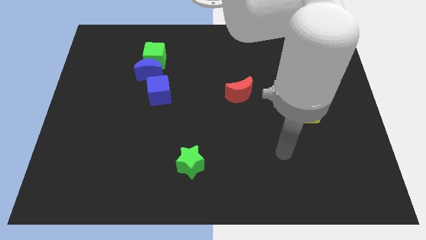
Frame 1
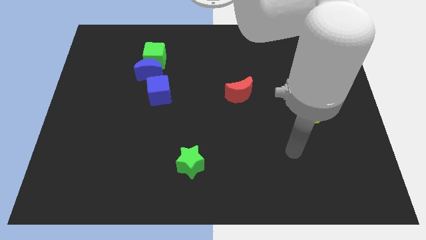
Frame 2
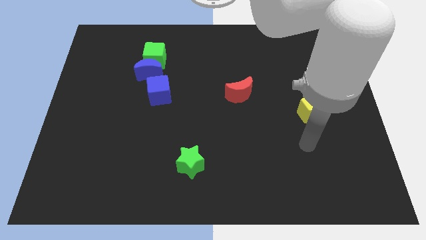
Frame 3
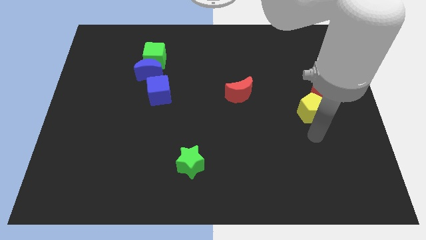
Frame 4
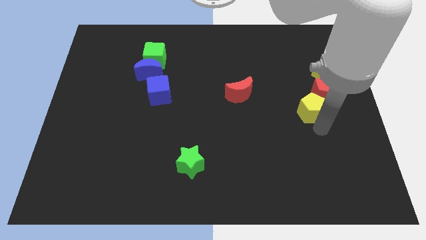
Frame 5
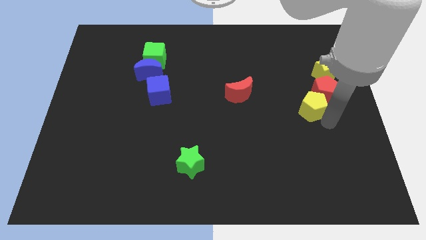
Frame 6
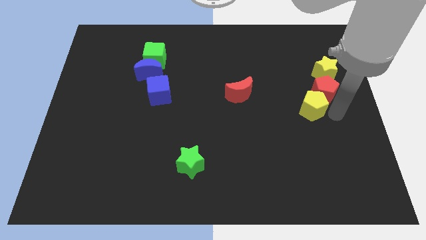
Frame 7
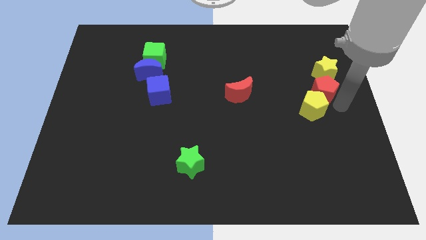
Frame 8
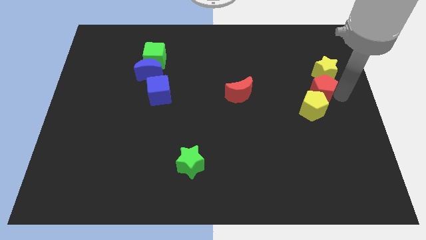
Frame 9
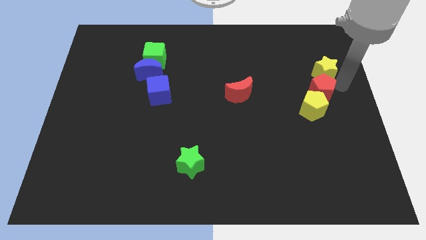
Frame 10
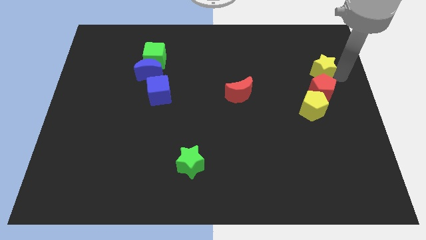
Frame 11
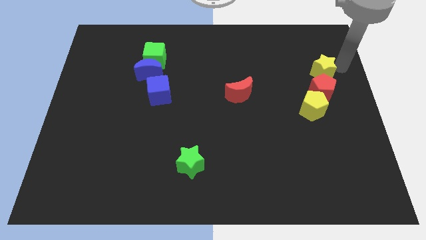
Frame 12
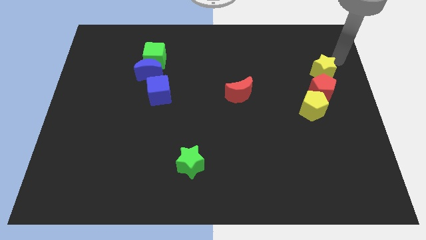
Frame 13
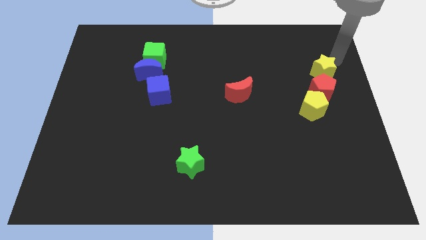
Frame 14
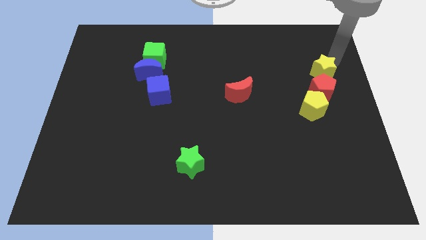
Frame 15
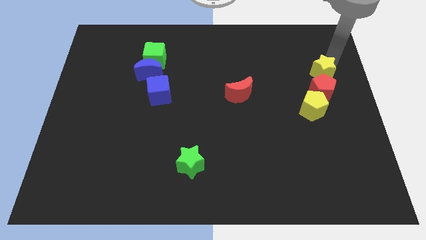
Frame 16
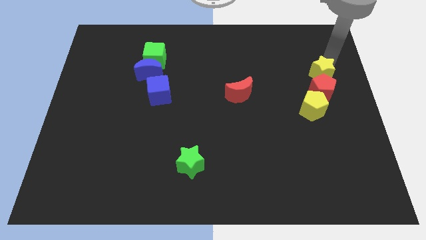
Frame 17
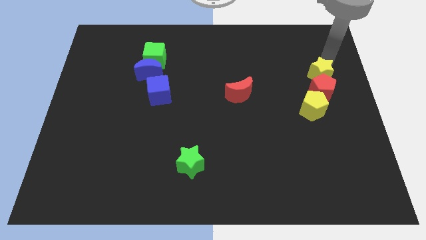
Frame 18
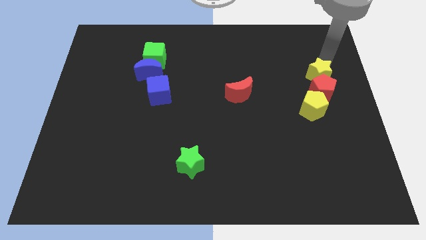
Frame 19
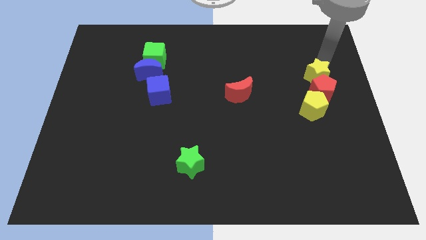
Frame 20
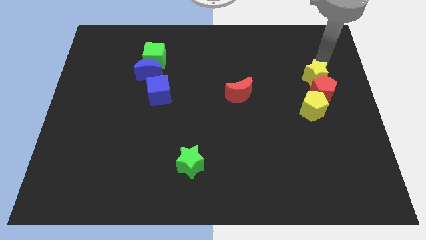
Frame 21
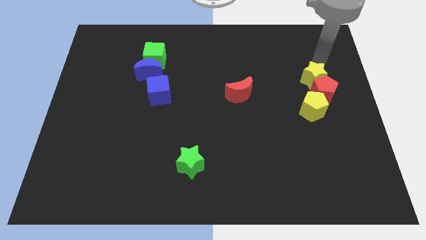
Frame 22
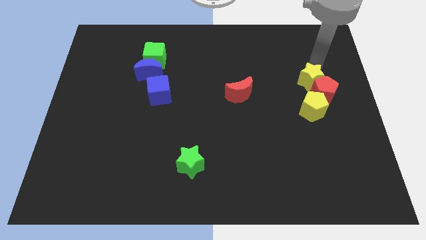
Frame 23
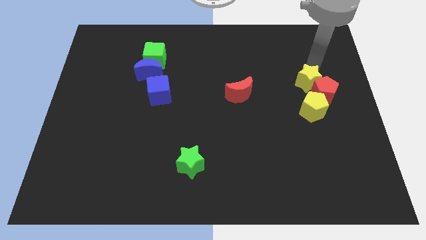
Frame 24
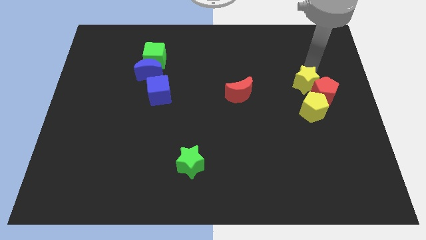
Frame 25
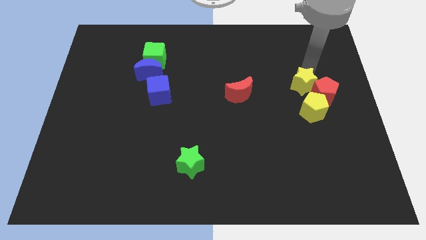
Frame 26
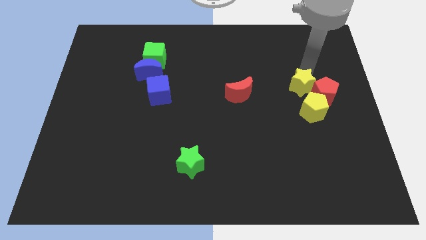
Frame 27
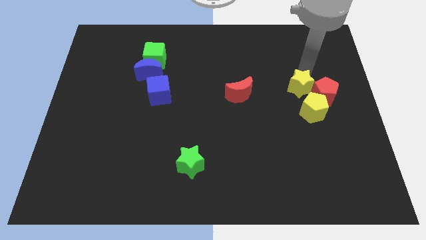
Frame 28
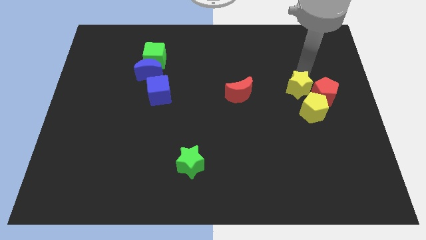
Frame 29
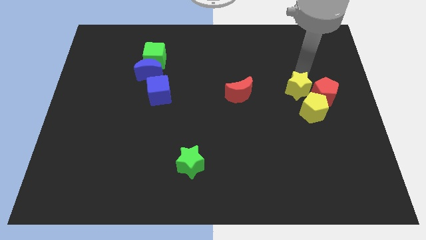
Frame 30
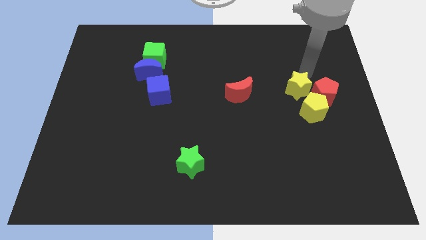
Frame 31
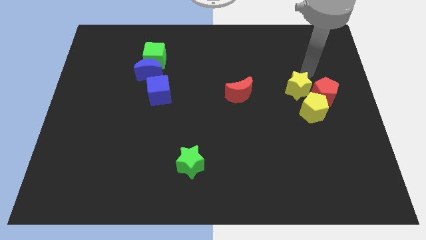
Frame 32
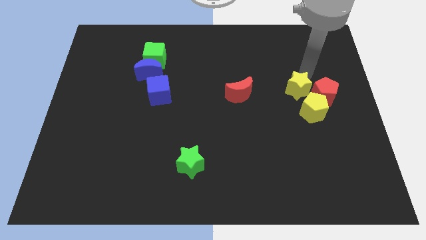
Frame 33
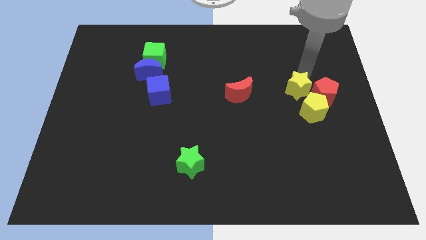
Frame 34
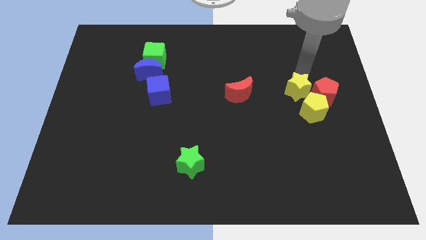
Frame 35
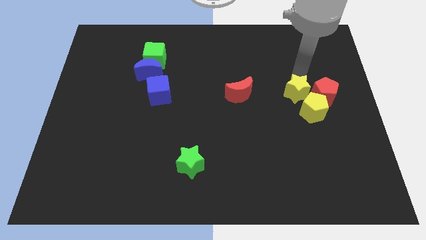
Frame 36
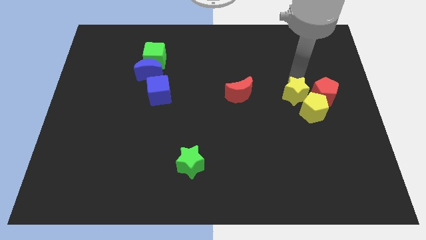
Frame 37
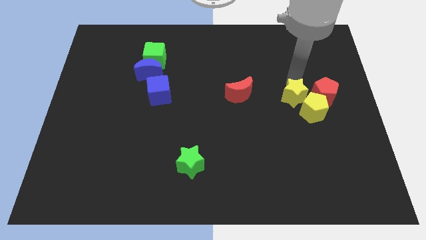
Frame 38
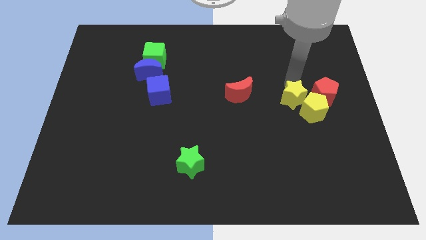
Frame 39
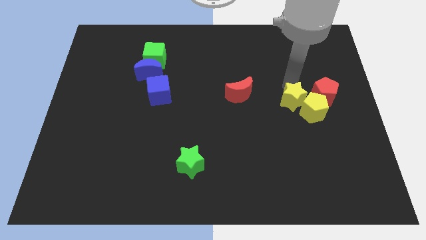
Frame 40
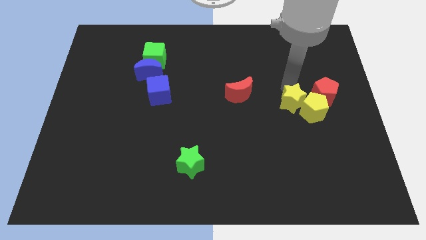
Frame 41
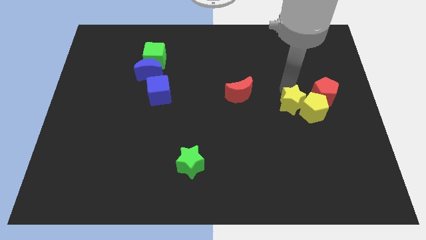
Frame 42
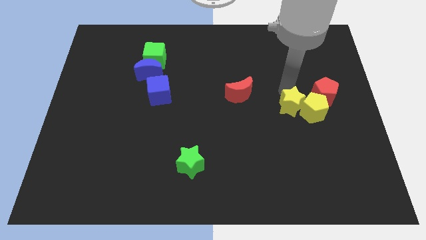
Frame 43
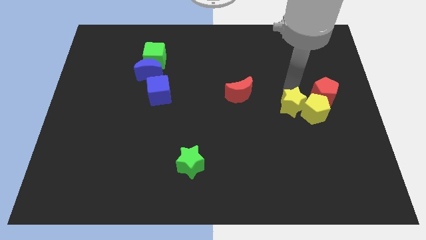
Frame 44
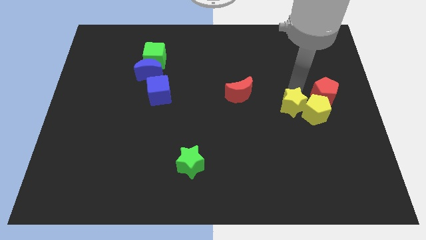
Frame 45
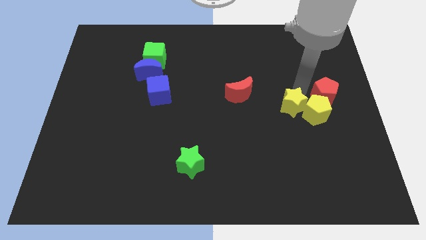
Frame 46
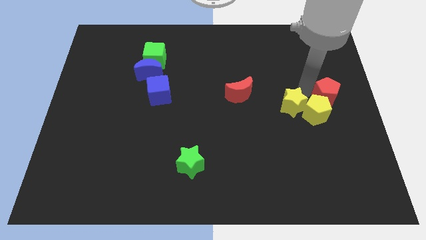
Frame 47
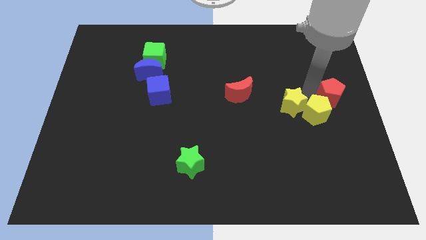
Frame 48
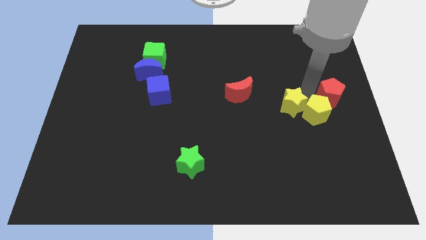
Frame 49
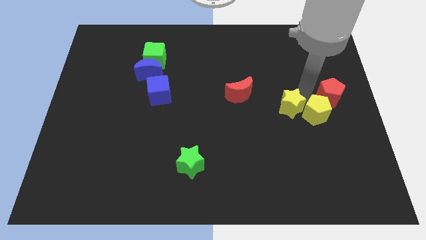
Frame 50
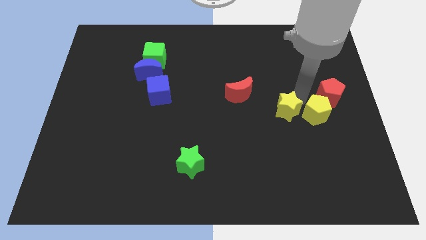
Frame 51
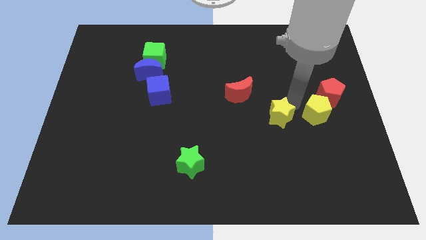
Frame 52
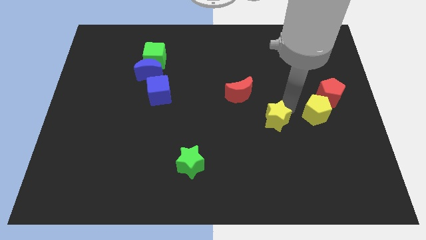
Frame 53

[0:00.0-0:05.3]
move the yellow star down and to the left diagonally

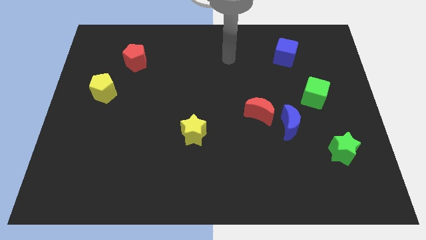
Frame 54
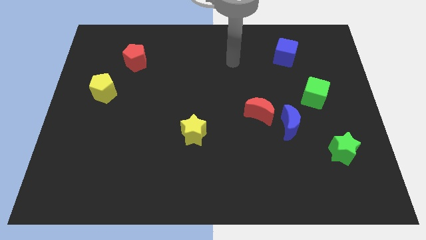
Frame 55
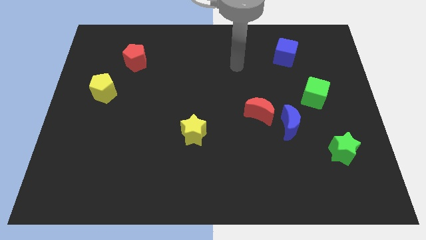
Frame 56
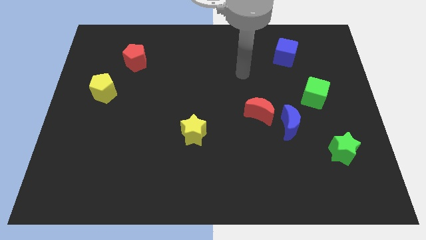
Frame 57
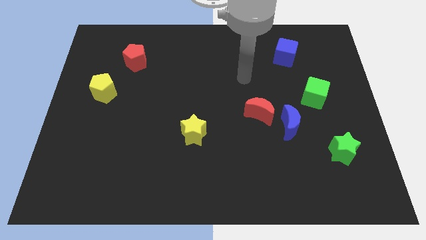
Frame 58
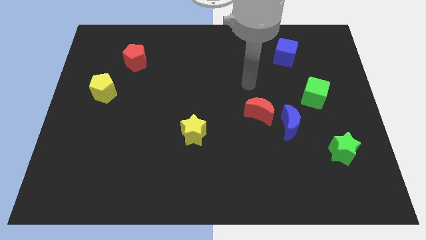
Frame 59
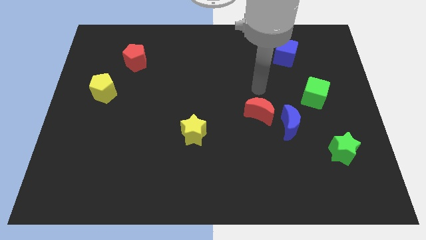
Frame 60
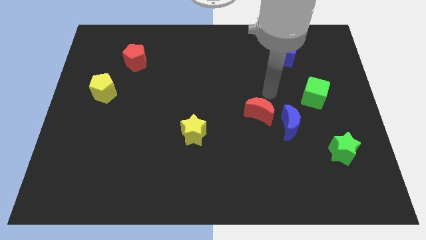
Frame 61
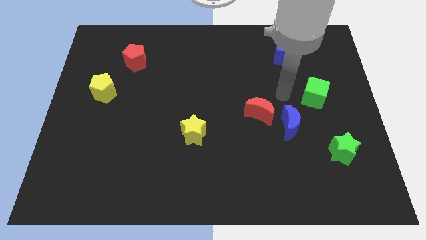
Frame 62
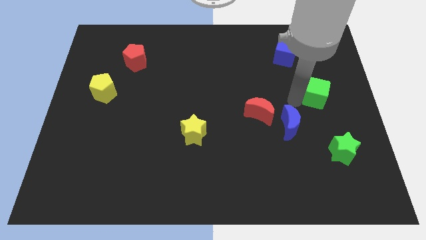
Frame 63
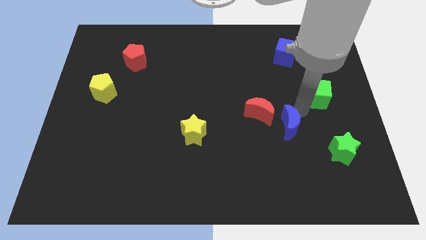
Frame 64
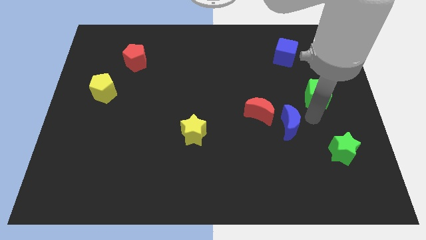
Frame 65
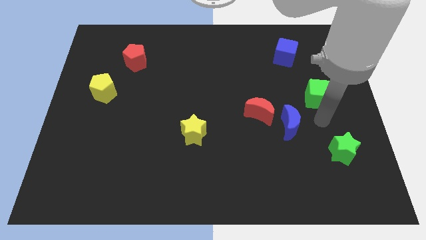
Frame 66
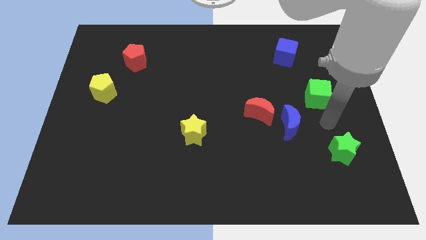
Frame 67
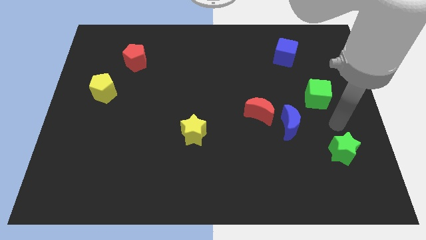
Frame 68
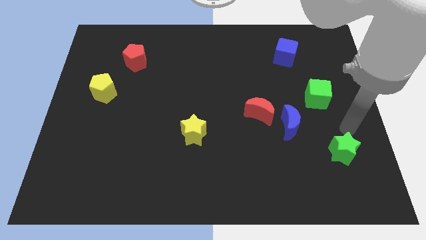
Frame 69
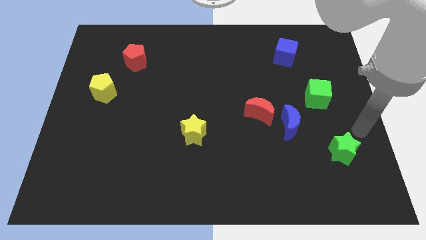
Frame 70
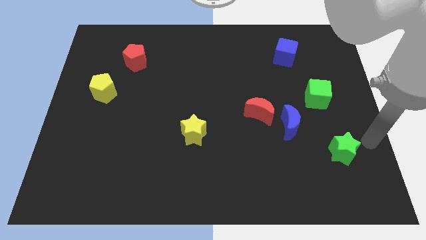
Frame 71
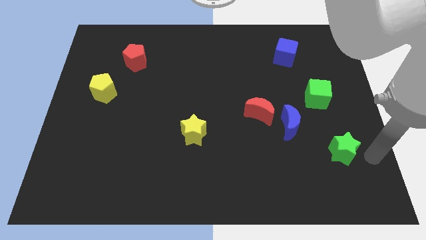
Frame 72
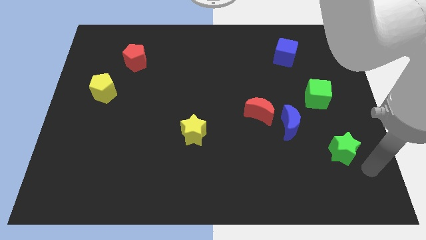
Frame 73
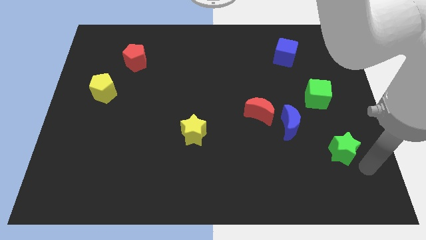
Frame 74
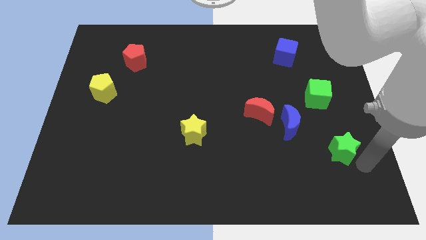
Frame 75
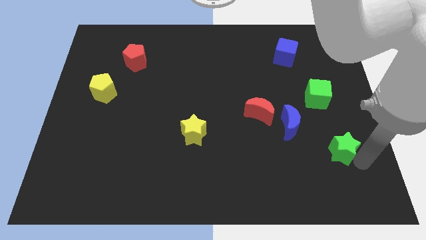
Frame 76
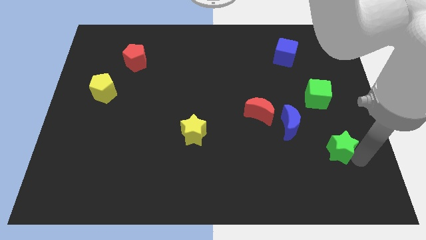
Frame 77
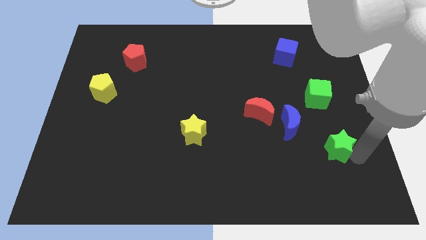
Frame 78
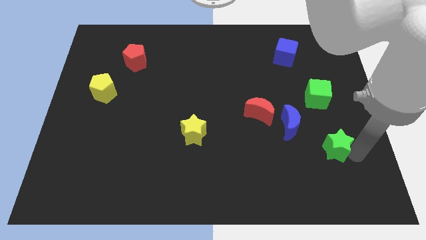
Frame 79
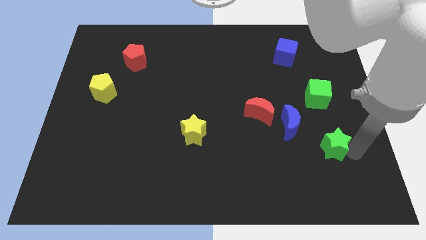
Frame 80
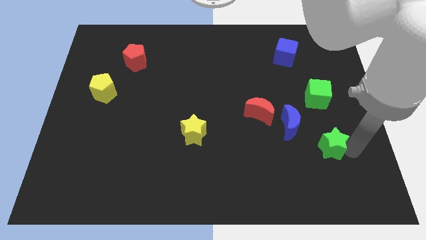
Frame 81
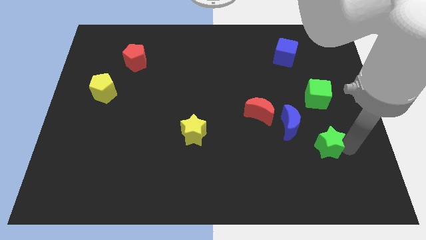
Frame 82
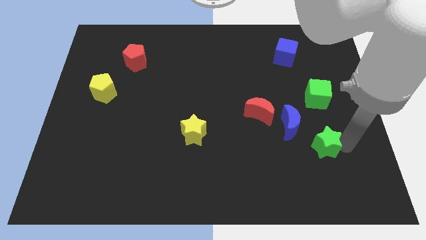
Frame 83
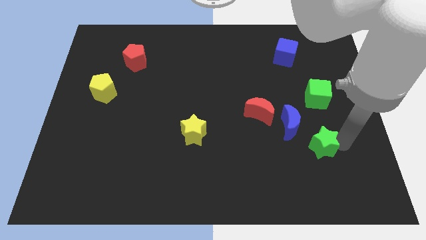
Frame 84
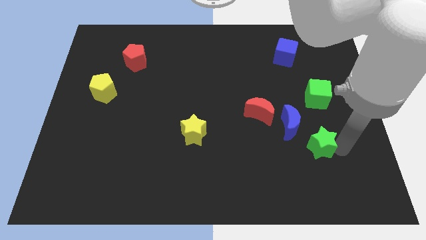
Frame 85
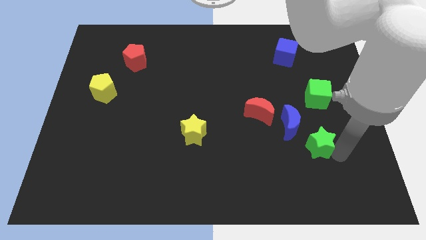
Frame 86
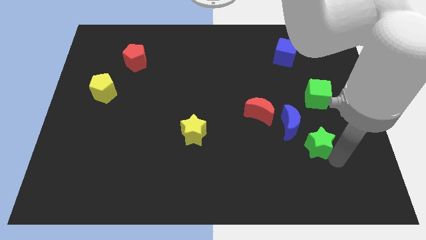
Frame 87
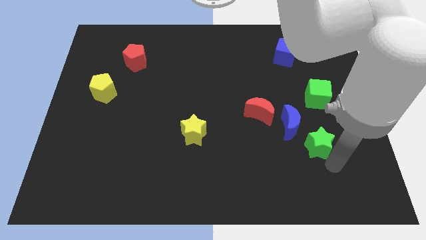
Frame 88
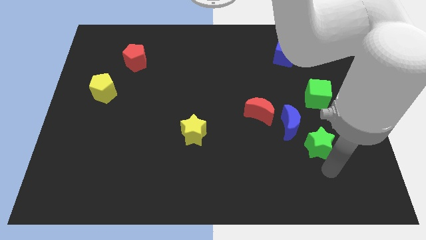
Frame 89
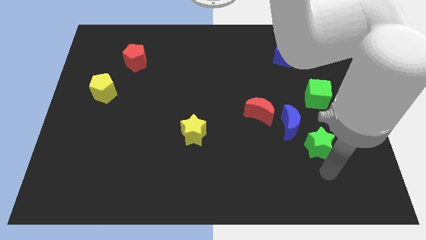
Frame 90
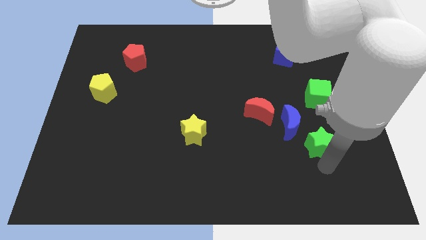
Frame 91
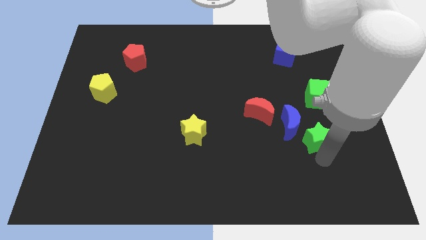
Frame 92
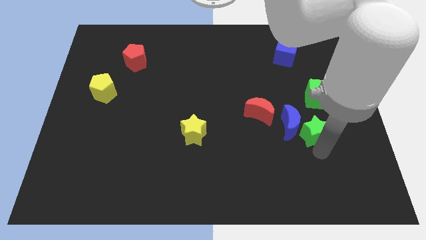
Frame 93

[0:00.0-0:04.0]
slightly push the green star upwards and then left
